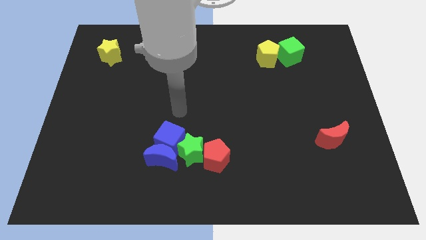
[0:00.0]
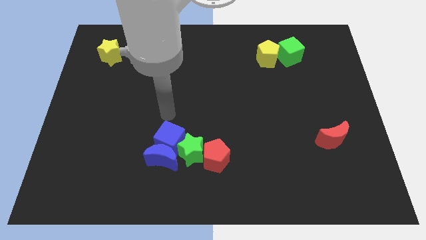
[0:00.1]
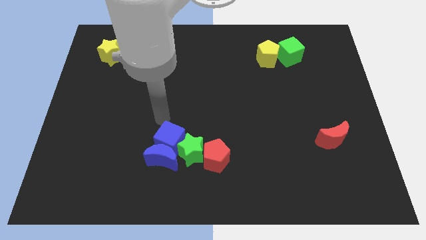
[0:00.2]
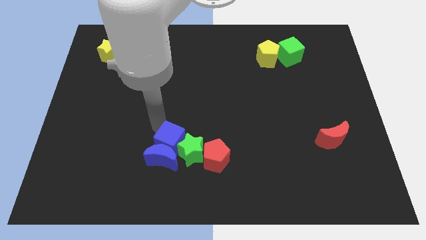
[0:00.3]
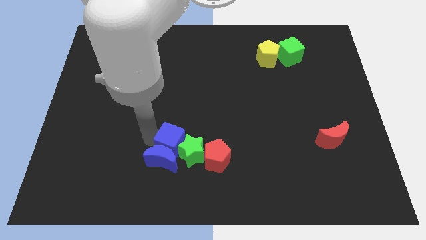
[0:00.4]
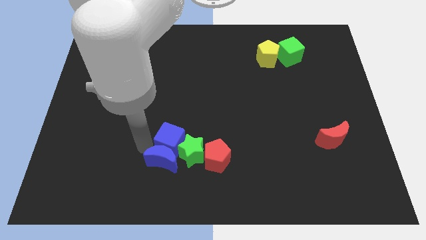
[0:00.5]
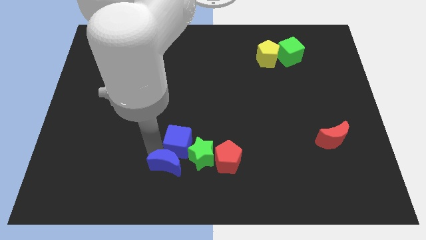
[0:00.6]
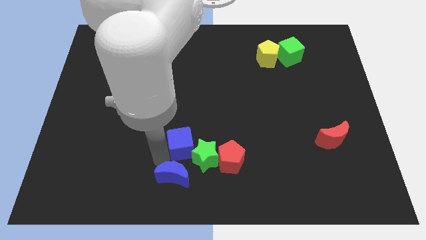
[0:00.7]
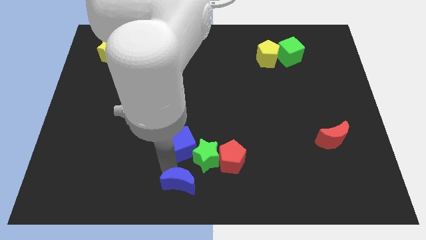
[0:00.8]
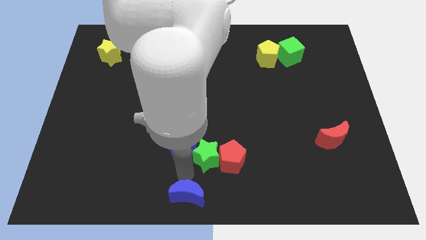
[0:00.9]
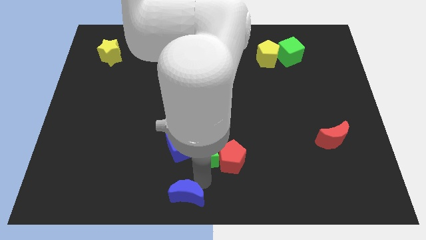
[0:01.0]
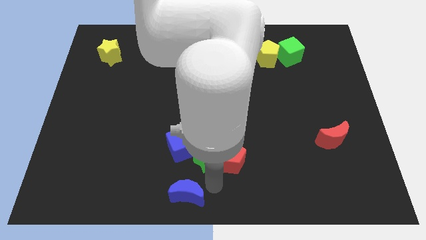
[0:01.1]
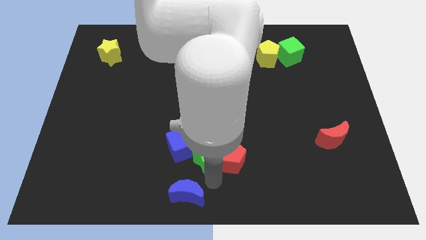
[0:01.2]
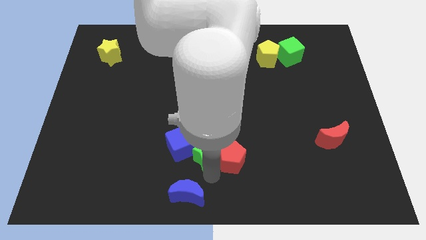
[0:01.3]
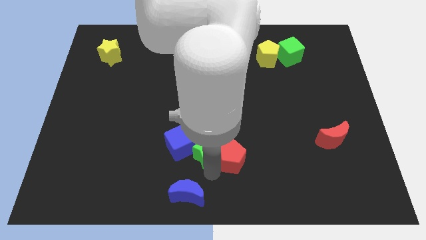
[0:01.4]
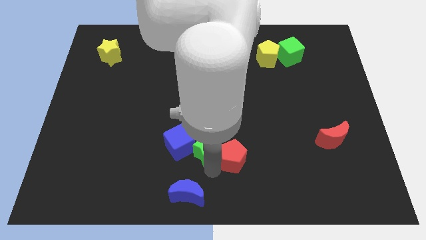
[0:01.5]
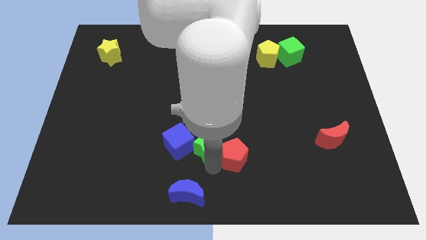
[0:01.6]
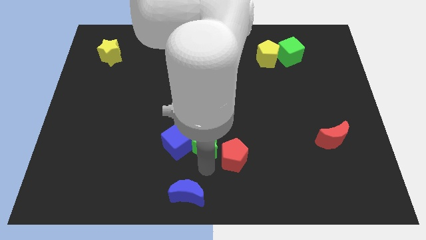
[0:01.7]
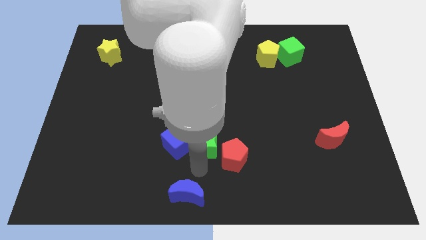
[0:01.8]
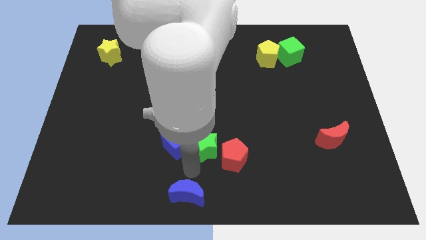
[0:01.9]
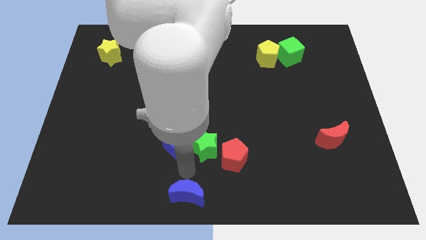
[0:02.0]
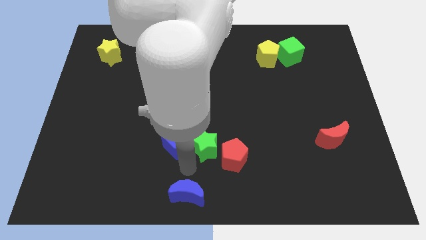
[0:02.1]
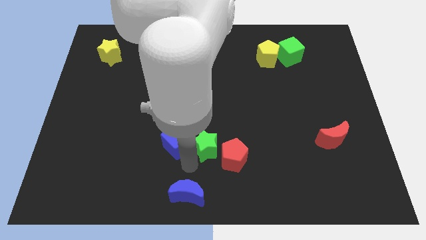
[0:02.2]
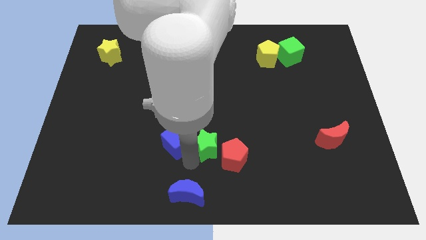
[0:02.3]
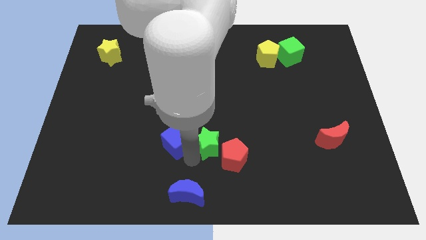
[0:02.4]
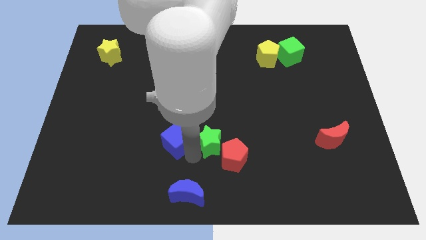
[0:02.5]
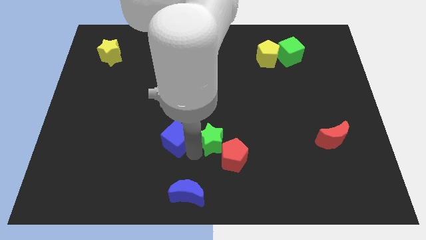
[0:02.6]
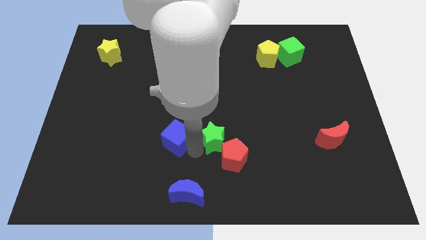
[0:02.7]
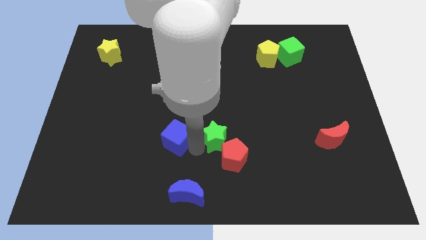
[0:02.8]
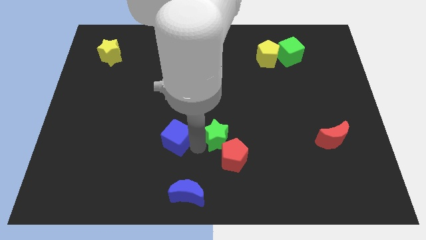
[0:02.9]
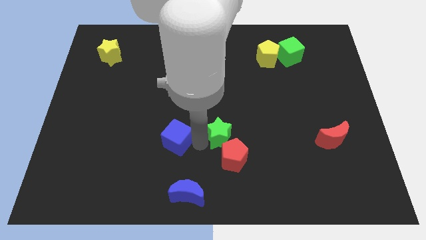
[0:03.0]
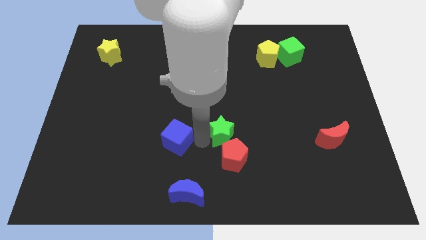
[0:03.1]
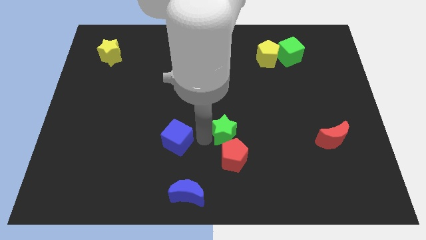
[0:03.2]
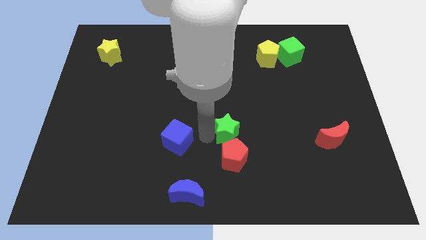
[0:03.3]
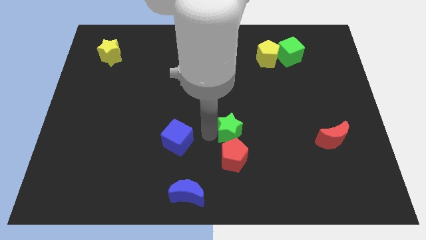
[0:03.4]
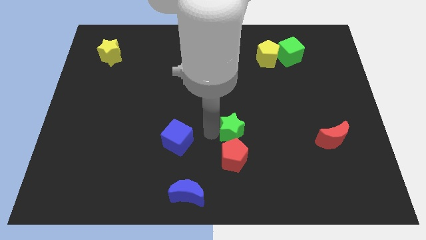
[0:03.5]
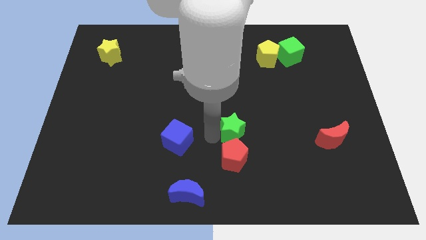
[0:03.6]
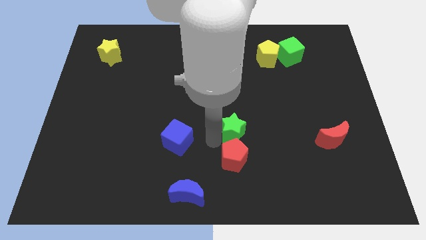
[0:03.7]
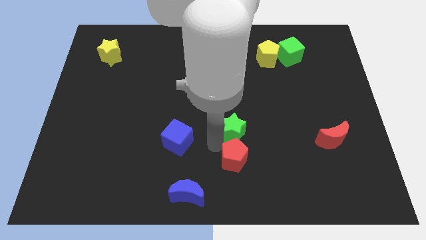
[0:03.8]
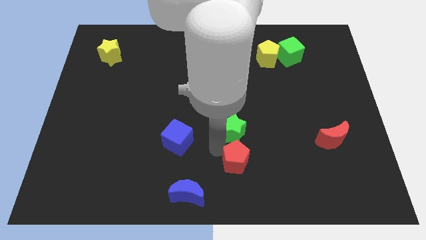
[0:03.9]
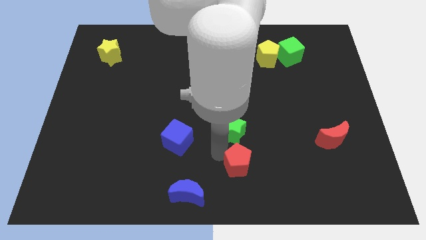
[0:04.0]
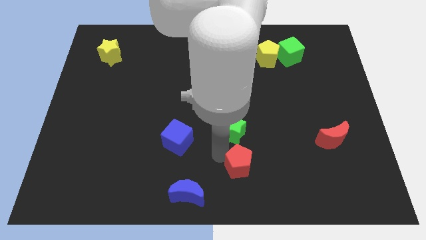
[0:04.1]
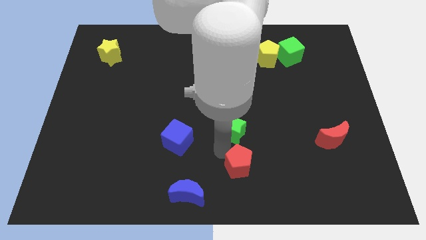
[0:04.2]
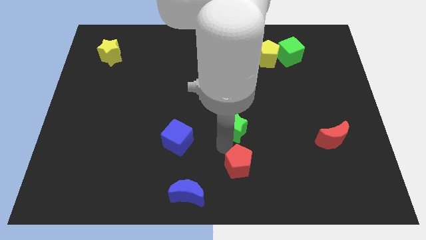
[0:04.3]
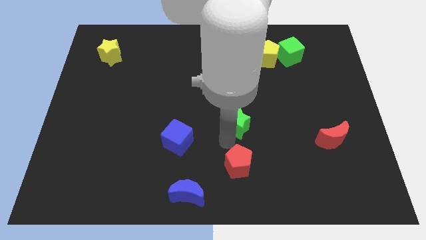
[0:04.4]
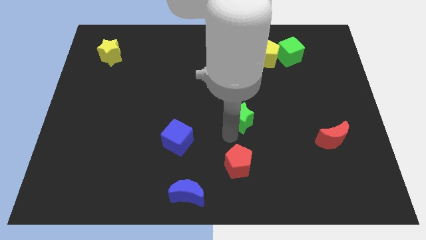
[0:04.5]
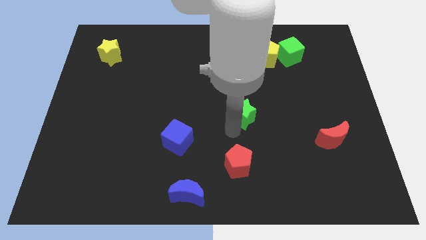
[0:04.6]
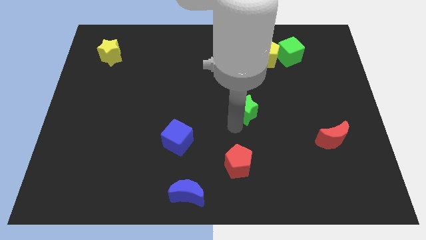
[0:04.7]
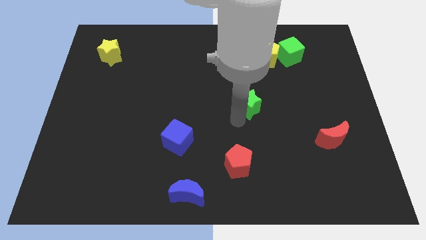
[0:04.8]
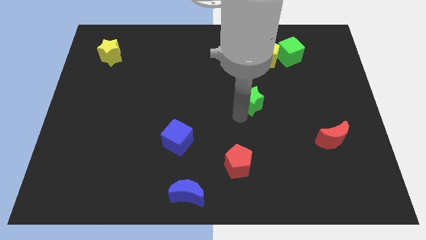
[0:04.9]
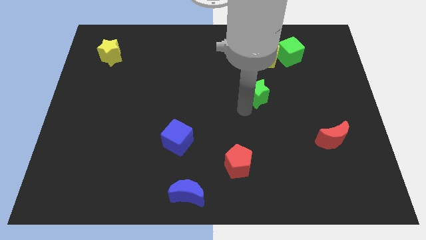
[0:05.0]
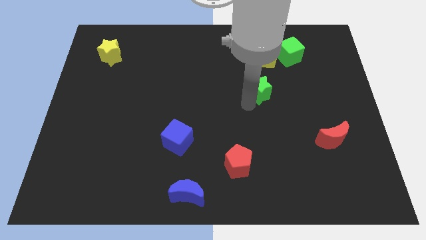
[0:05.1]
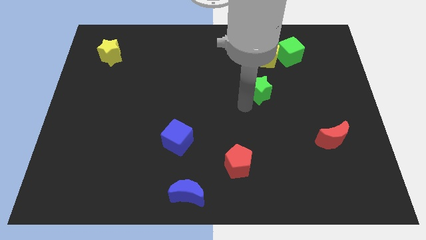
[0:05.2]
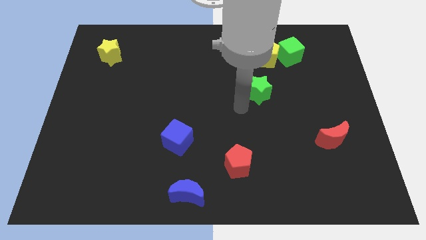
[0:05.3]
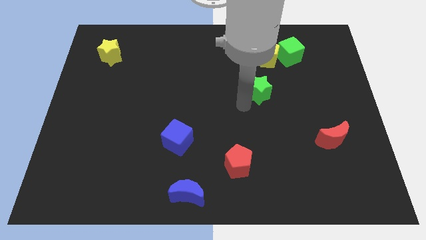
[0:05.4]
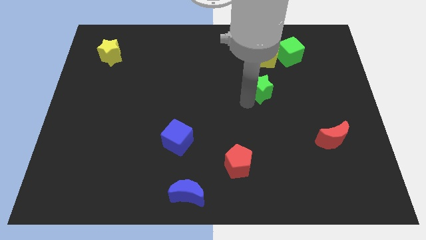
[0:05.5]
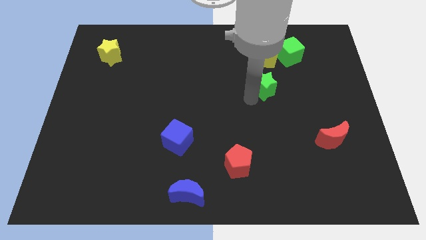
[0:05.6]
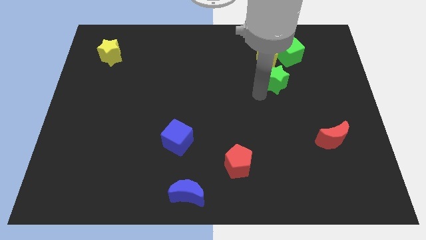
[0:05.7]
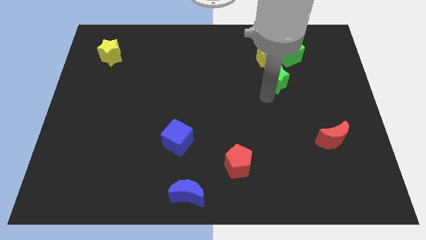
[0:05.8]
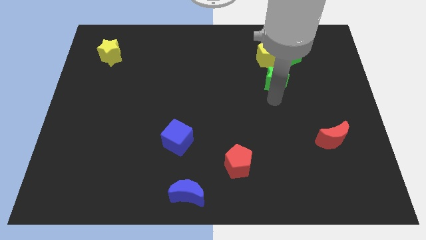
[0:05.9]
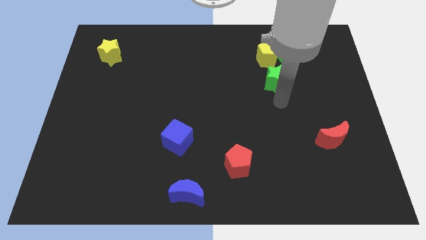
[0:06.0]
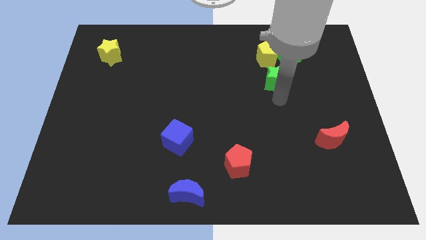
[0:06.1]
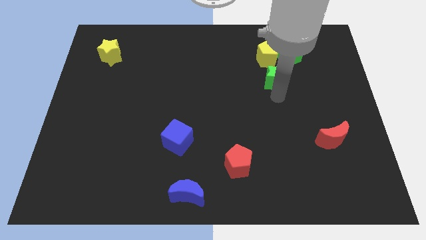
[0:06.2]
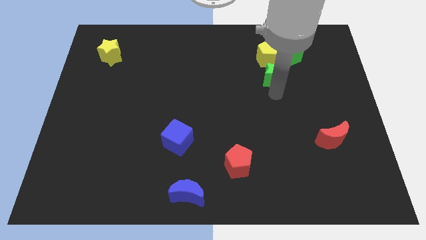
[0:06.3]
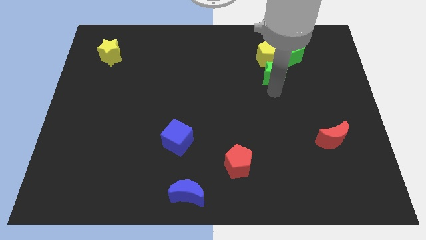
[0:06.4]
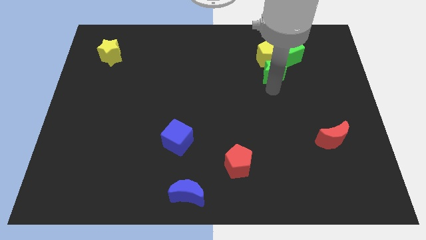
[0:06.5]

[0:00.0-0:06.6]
move the green star towards the yellow pentagon
